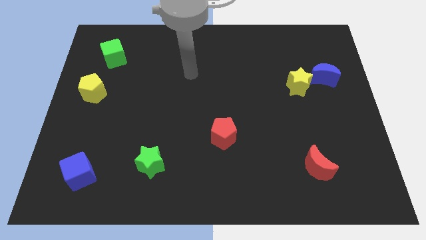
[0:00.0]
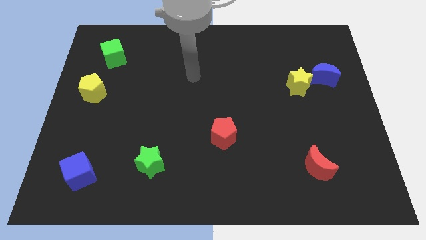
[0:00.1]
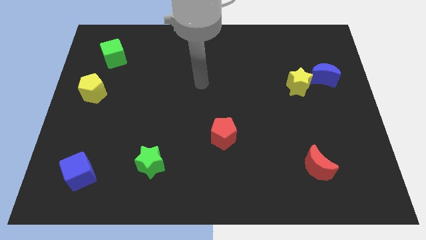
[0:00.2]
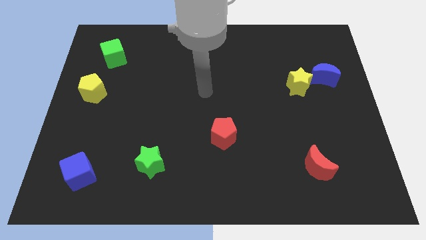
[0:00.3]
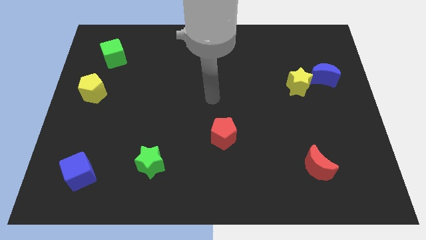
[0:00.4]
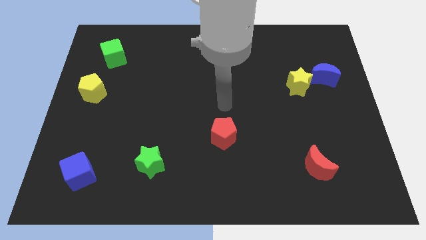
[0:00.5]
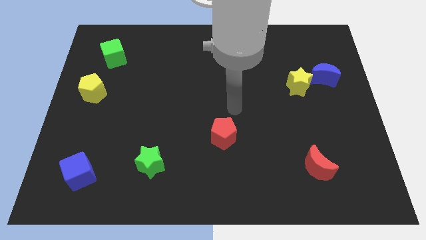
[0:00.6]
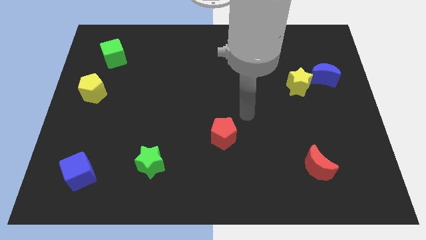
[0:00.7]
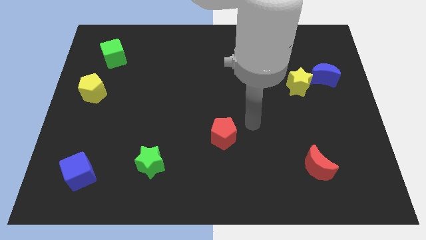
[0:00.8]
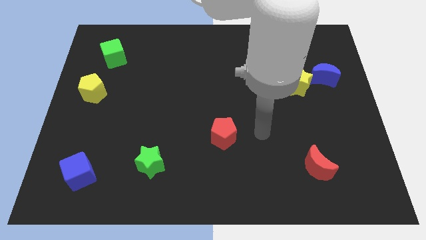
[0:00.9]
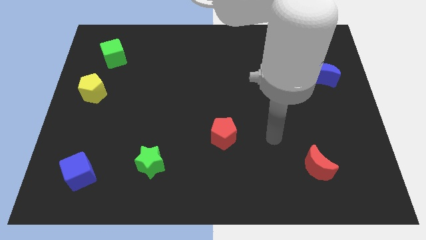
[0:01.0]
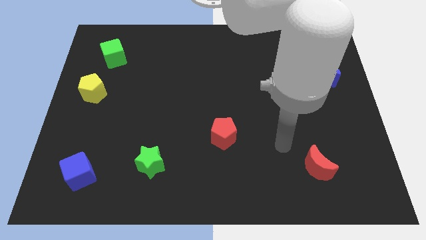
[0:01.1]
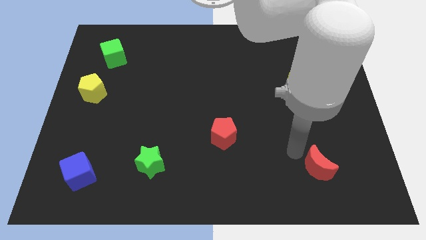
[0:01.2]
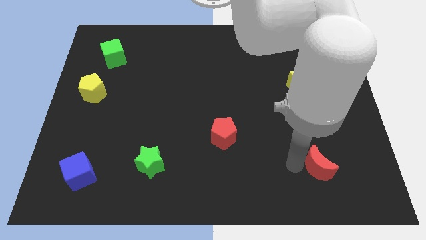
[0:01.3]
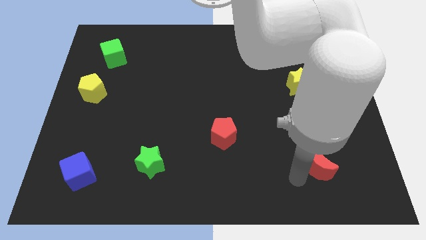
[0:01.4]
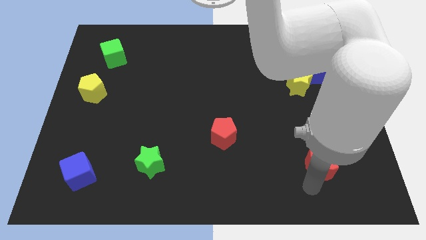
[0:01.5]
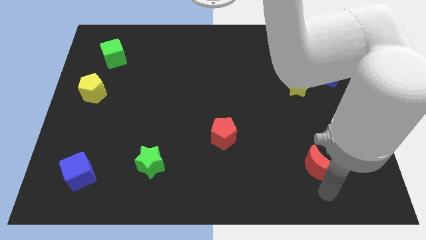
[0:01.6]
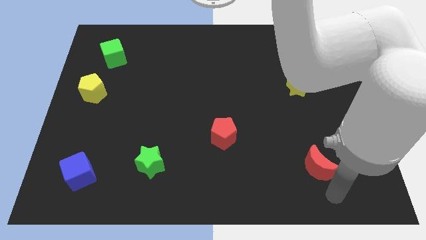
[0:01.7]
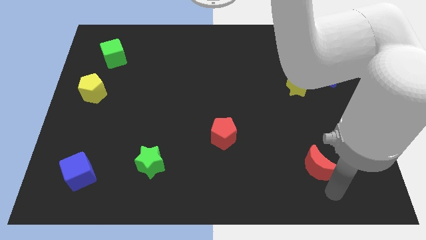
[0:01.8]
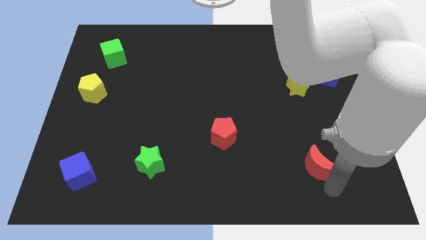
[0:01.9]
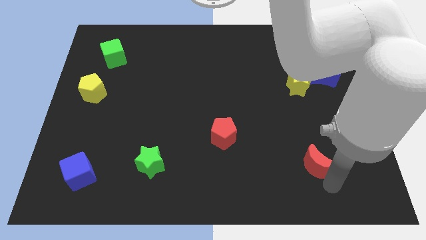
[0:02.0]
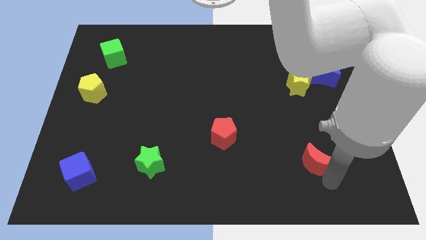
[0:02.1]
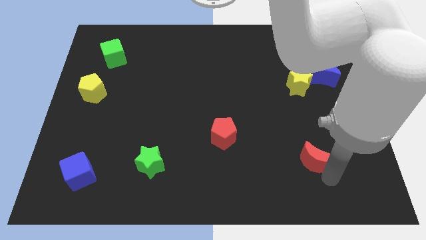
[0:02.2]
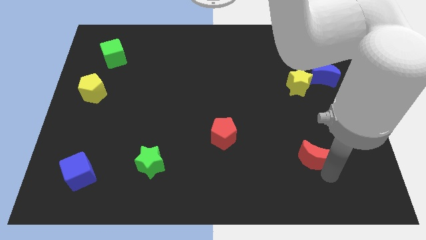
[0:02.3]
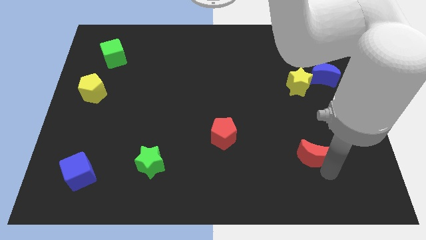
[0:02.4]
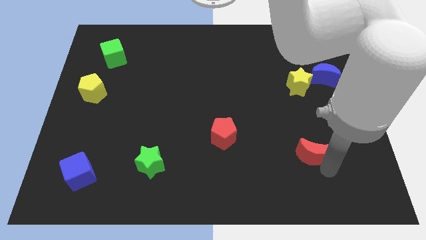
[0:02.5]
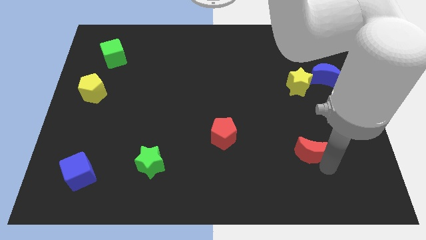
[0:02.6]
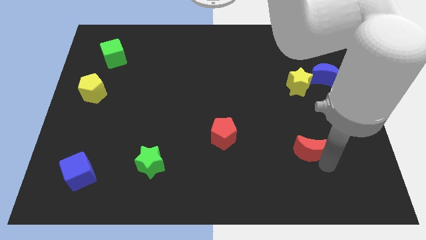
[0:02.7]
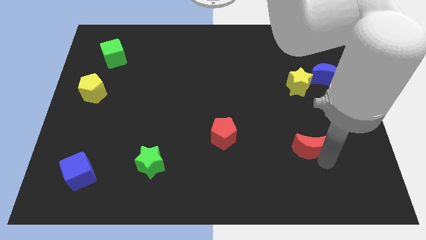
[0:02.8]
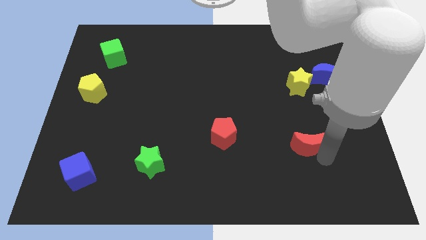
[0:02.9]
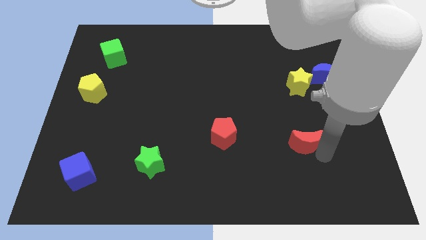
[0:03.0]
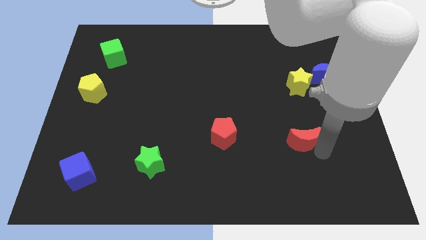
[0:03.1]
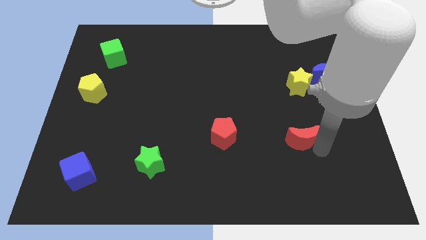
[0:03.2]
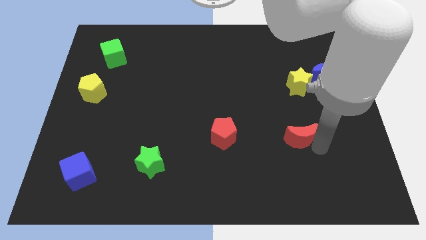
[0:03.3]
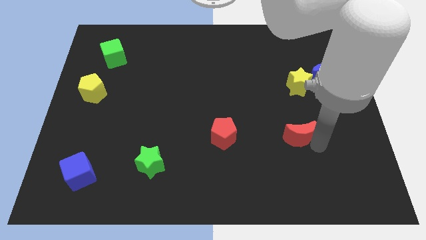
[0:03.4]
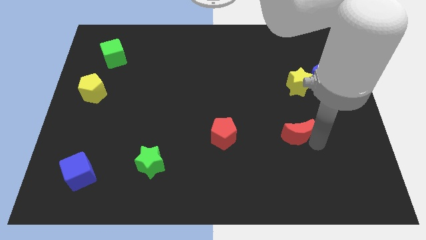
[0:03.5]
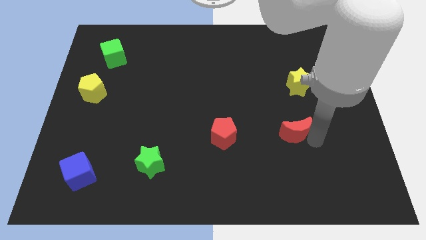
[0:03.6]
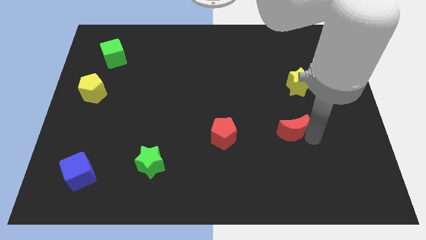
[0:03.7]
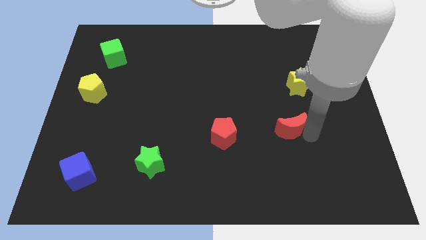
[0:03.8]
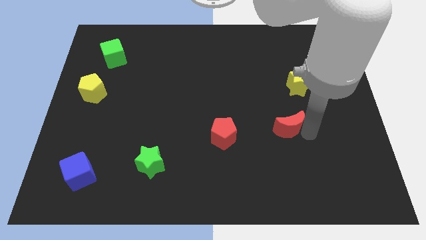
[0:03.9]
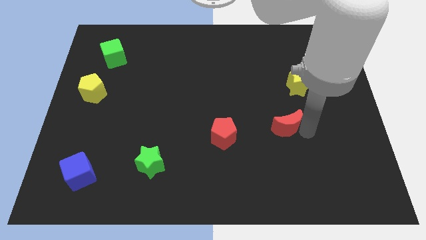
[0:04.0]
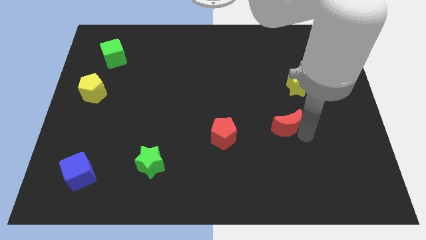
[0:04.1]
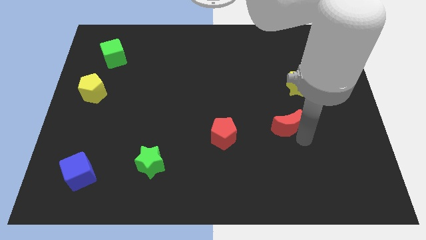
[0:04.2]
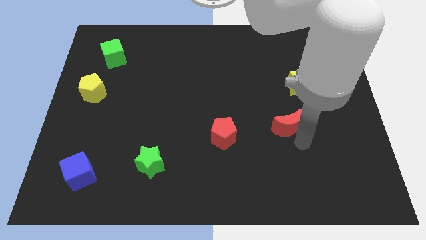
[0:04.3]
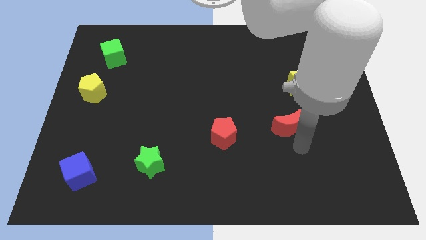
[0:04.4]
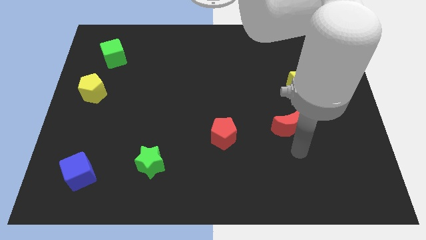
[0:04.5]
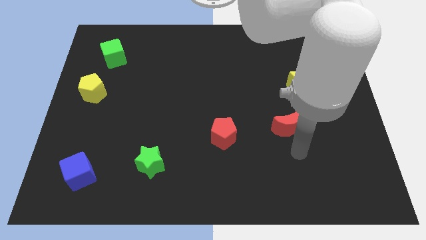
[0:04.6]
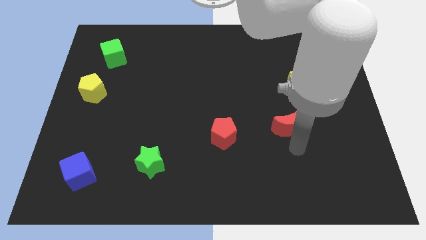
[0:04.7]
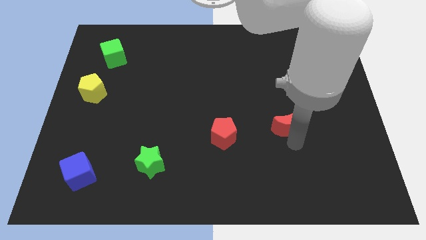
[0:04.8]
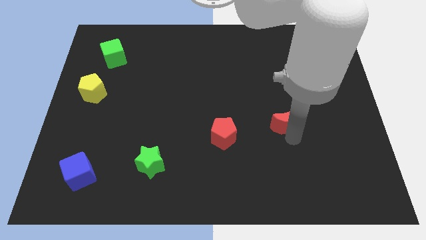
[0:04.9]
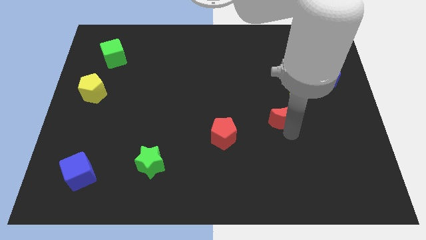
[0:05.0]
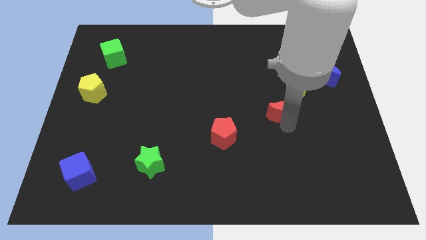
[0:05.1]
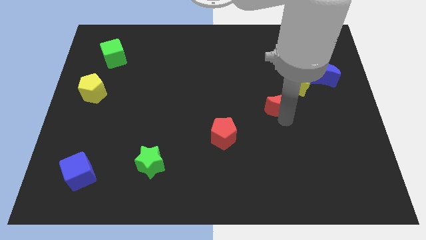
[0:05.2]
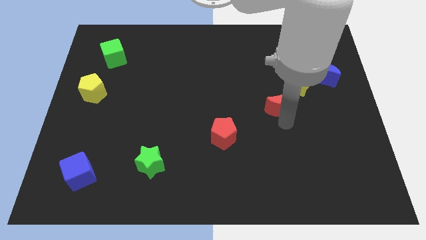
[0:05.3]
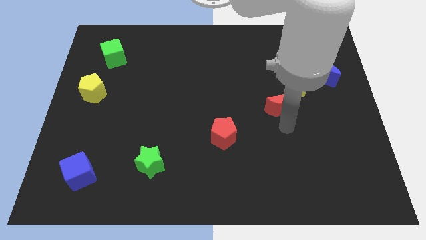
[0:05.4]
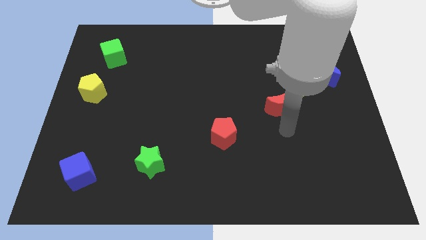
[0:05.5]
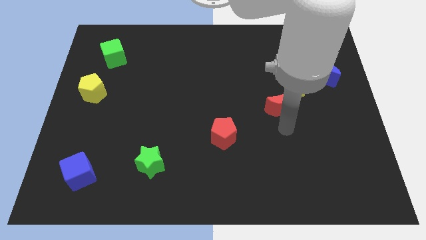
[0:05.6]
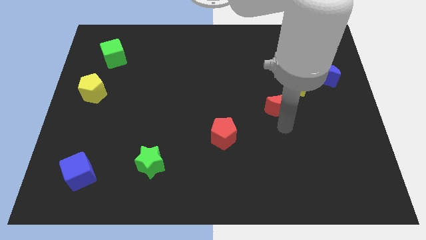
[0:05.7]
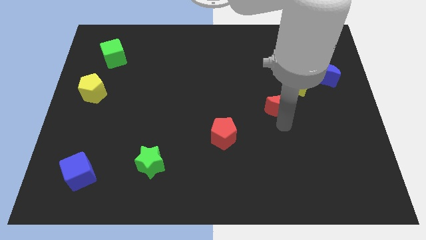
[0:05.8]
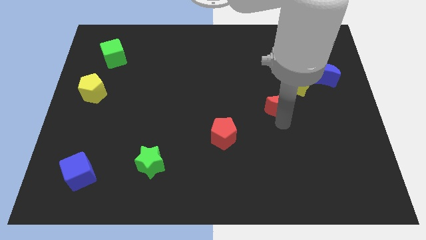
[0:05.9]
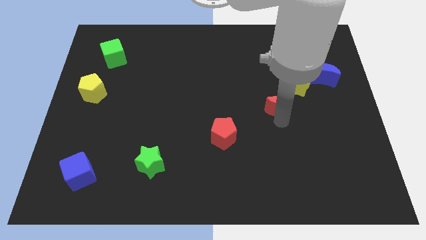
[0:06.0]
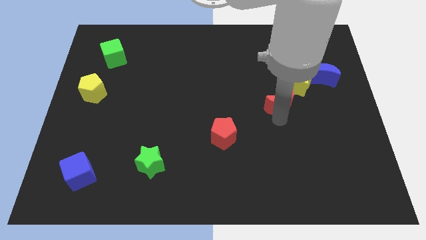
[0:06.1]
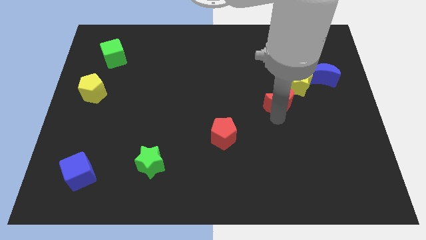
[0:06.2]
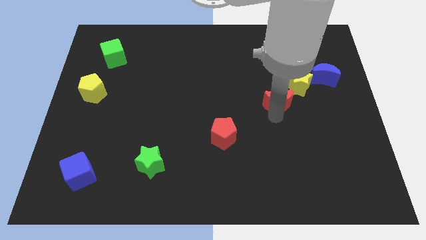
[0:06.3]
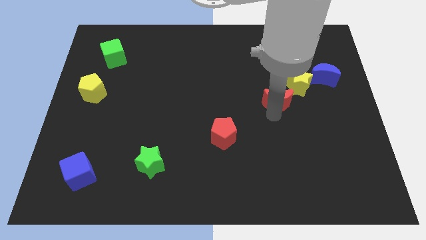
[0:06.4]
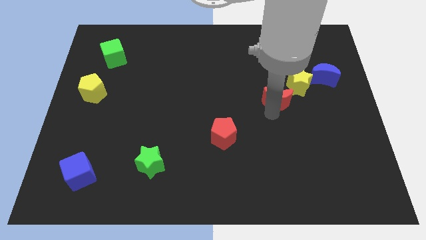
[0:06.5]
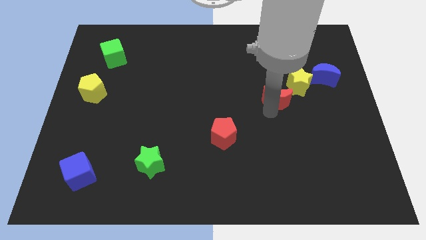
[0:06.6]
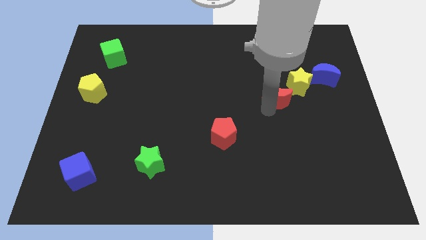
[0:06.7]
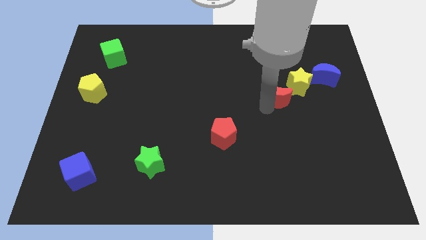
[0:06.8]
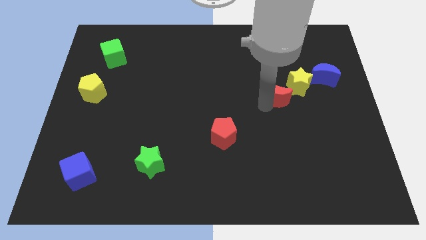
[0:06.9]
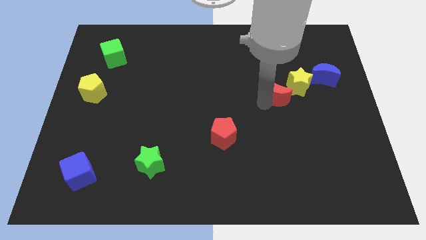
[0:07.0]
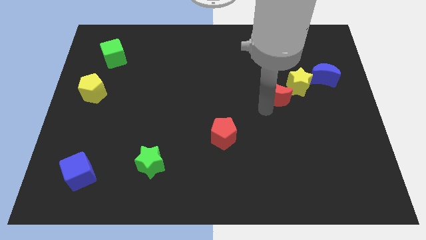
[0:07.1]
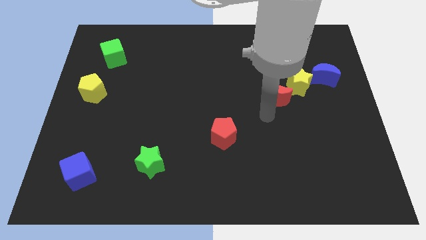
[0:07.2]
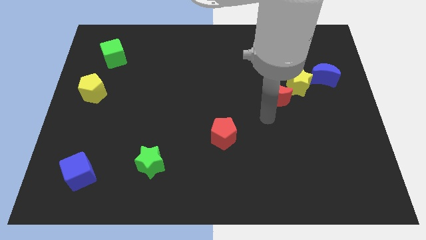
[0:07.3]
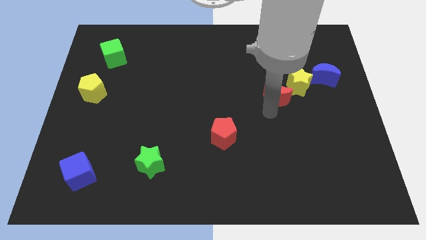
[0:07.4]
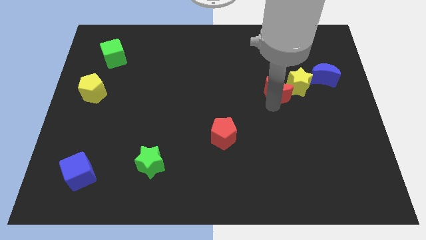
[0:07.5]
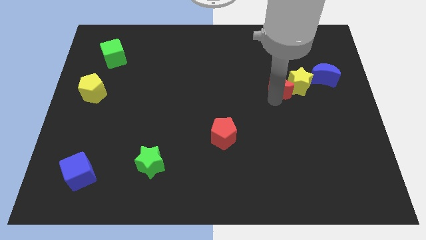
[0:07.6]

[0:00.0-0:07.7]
push the red moon up
